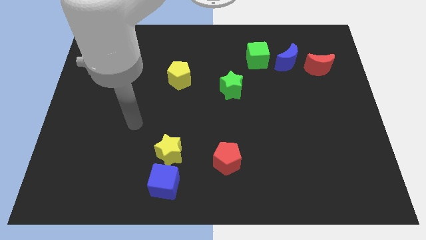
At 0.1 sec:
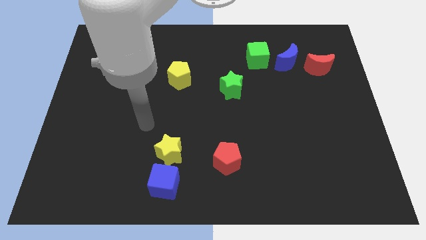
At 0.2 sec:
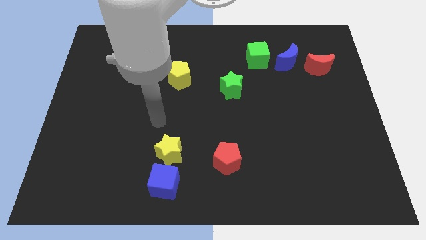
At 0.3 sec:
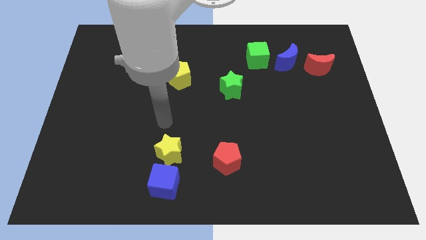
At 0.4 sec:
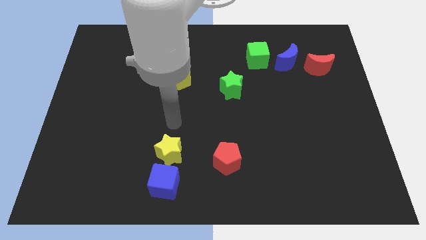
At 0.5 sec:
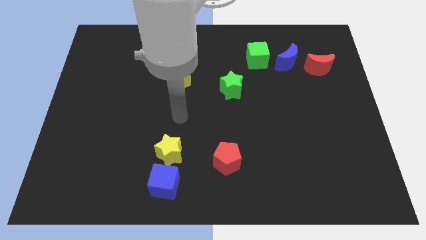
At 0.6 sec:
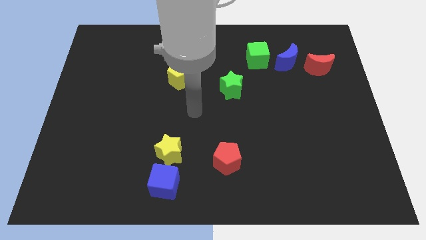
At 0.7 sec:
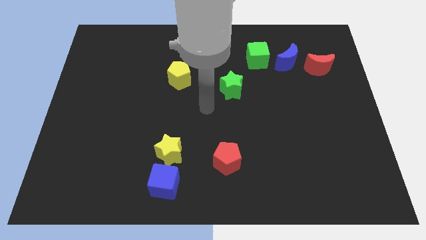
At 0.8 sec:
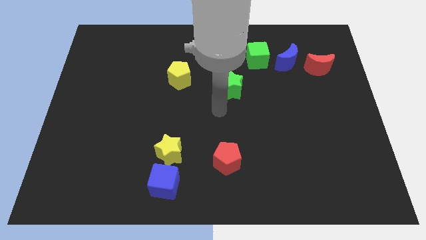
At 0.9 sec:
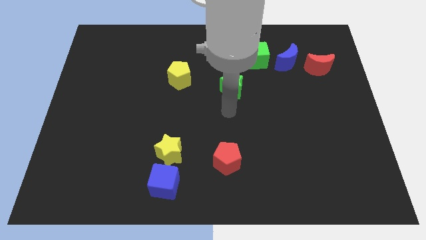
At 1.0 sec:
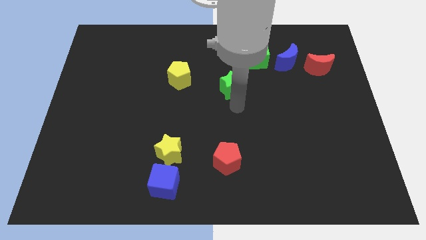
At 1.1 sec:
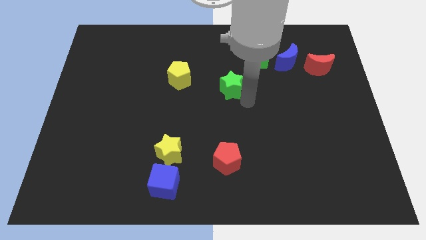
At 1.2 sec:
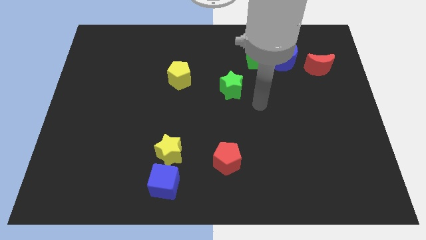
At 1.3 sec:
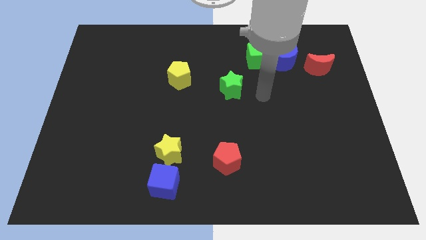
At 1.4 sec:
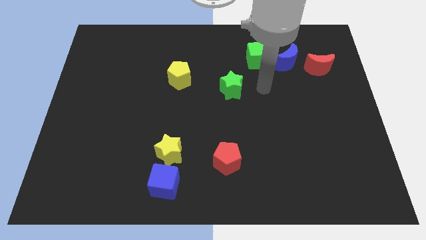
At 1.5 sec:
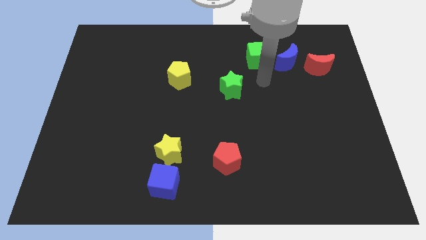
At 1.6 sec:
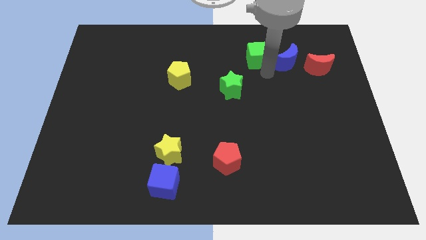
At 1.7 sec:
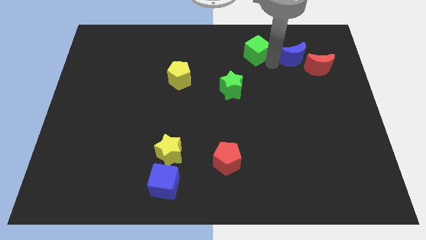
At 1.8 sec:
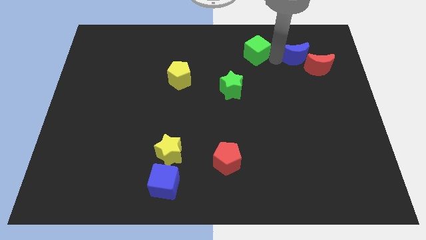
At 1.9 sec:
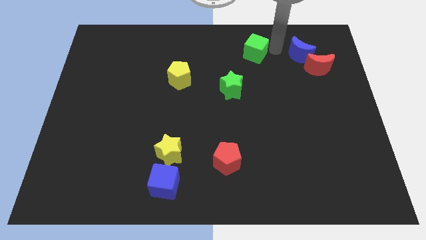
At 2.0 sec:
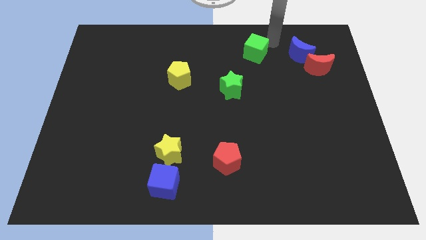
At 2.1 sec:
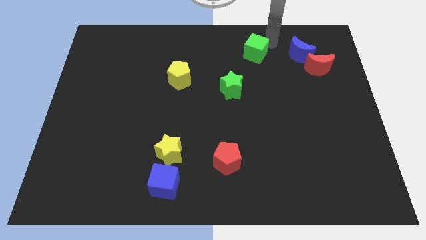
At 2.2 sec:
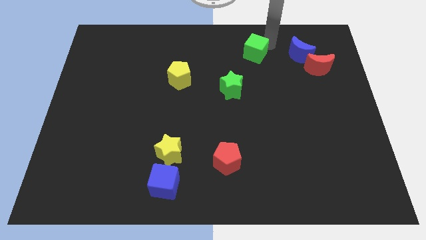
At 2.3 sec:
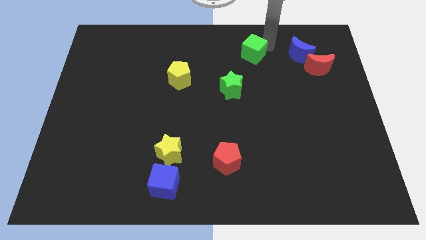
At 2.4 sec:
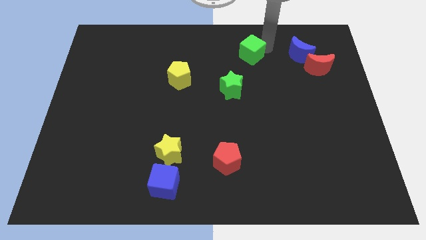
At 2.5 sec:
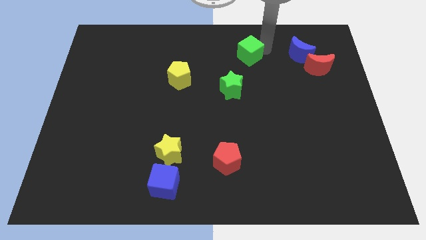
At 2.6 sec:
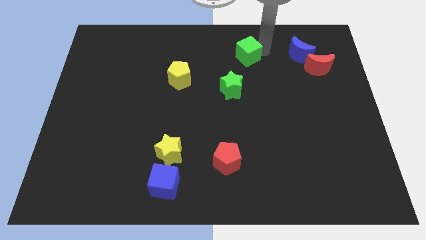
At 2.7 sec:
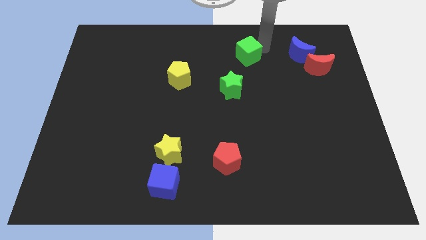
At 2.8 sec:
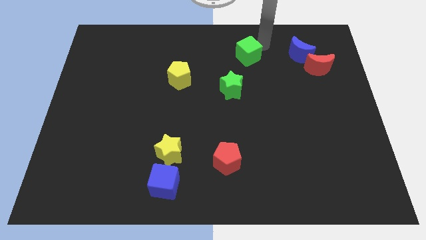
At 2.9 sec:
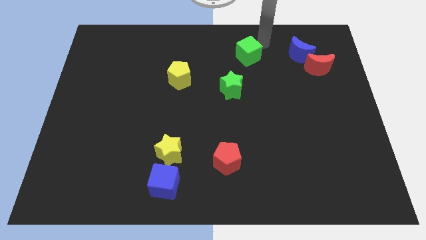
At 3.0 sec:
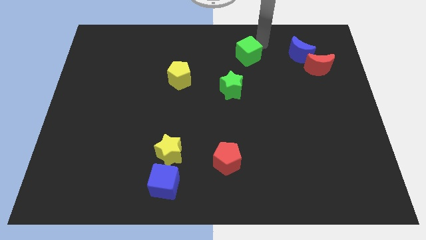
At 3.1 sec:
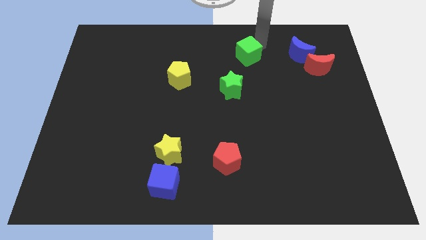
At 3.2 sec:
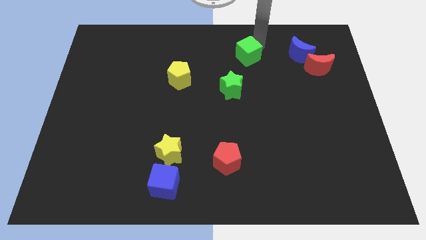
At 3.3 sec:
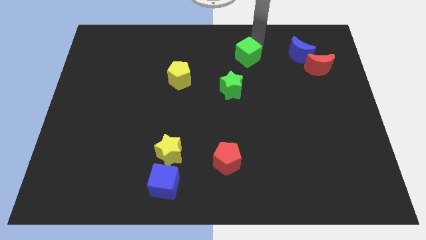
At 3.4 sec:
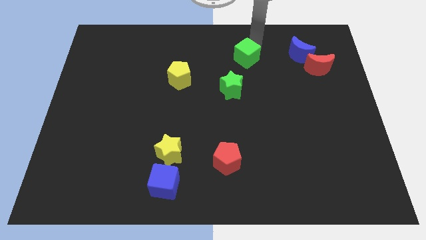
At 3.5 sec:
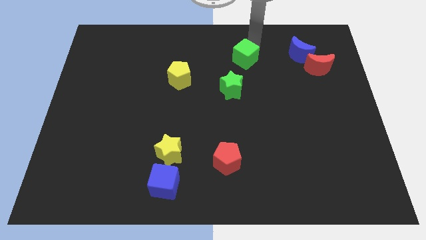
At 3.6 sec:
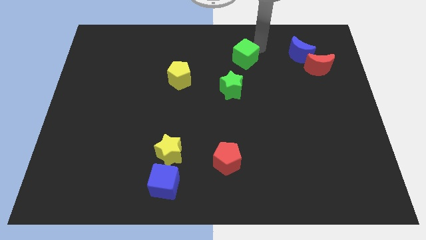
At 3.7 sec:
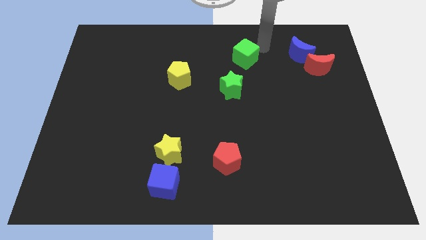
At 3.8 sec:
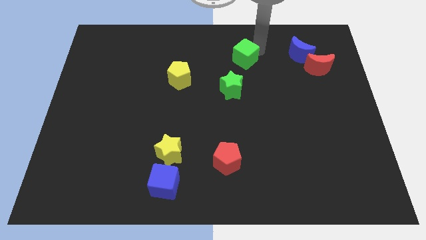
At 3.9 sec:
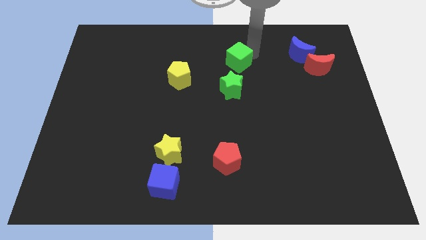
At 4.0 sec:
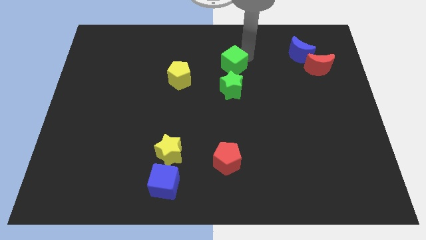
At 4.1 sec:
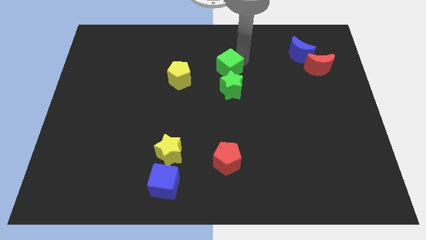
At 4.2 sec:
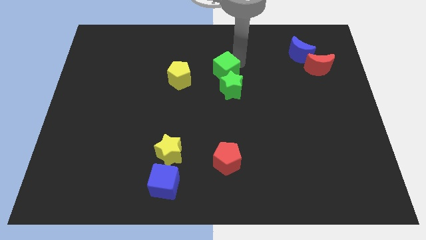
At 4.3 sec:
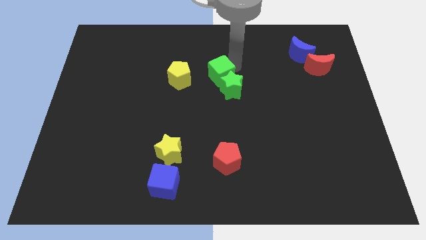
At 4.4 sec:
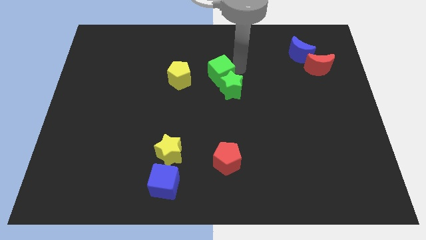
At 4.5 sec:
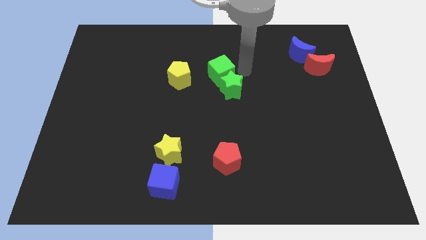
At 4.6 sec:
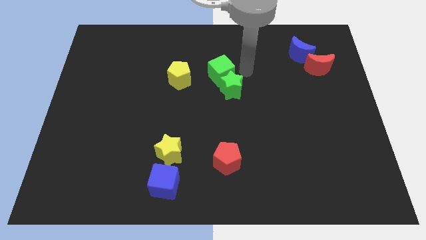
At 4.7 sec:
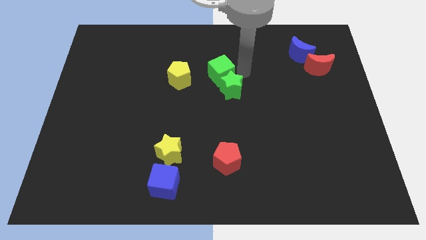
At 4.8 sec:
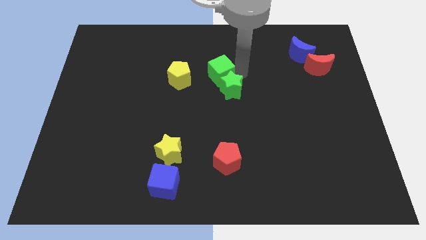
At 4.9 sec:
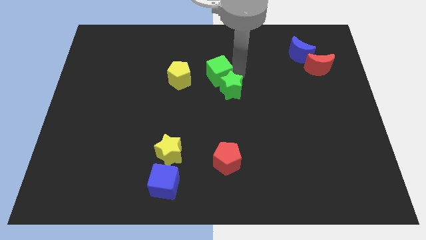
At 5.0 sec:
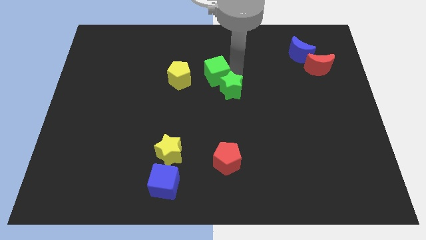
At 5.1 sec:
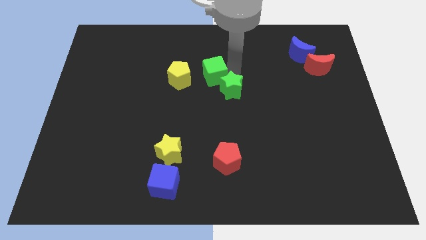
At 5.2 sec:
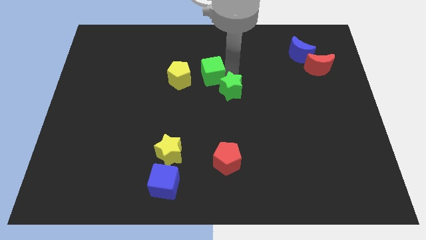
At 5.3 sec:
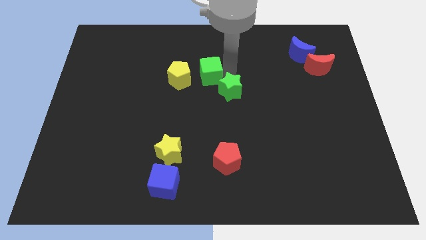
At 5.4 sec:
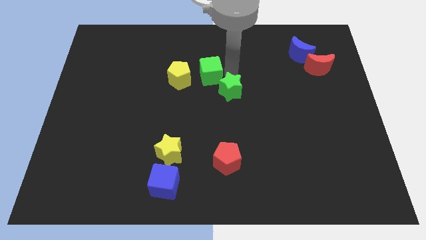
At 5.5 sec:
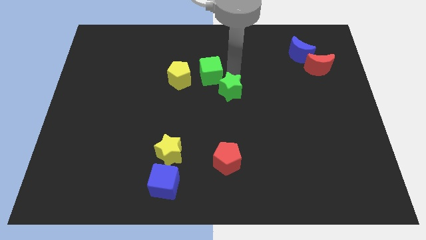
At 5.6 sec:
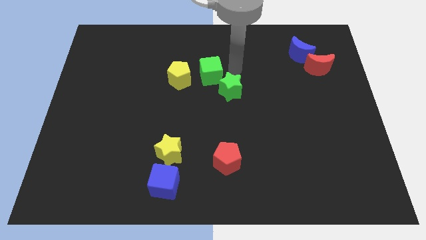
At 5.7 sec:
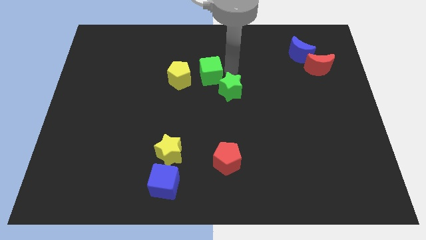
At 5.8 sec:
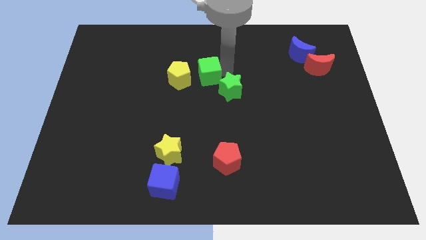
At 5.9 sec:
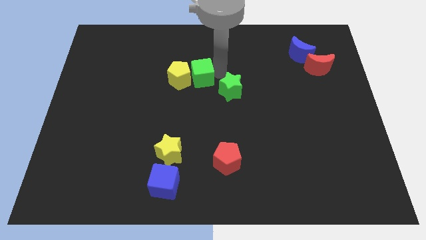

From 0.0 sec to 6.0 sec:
move the green cube close to the yellow pentagon
